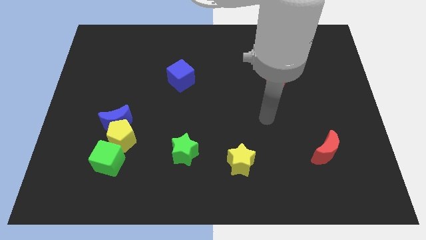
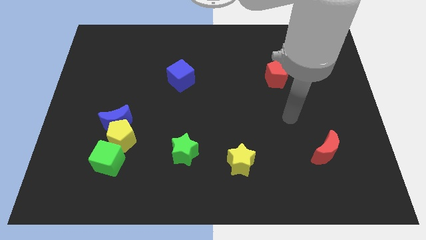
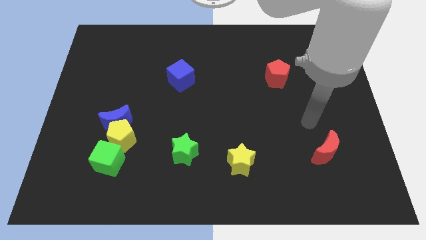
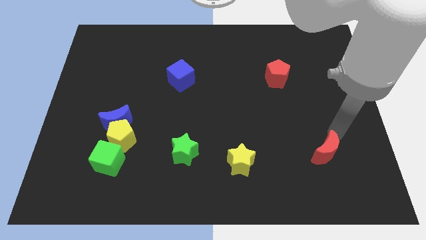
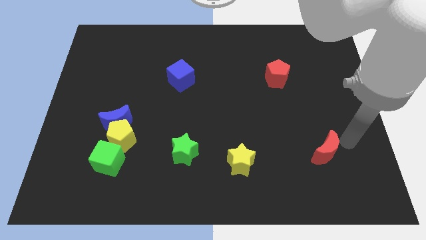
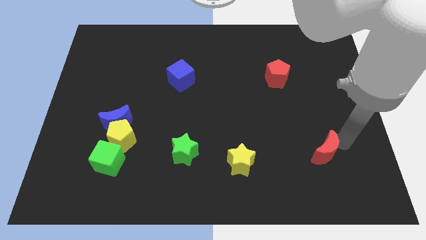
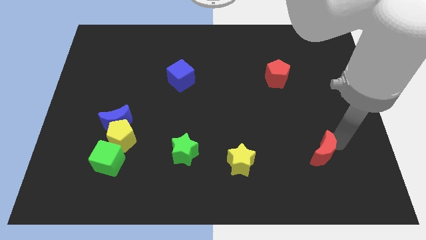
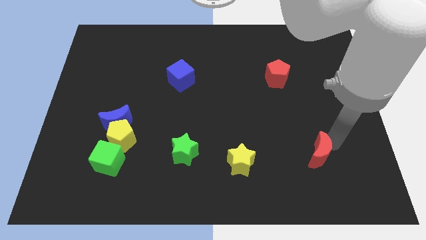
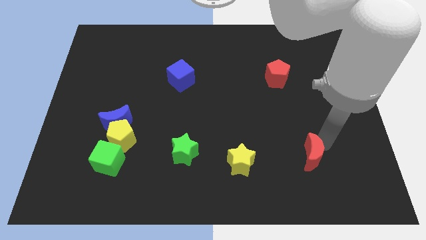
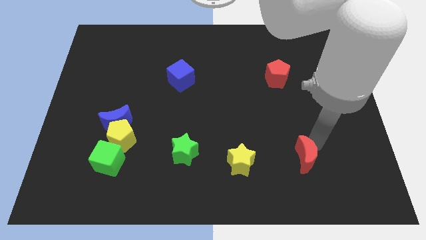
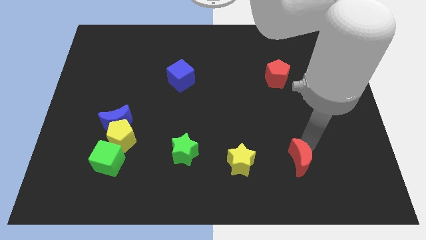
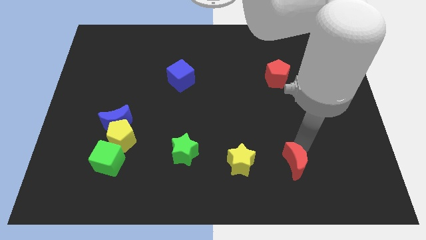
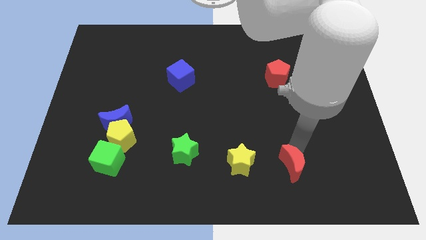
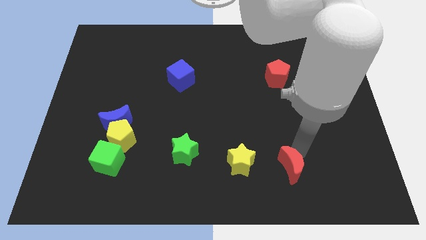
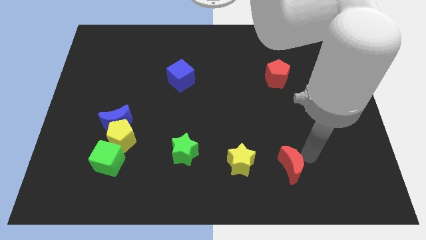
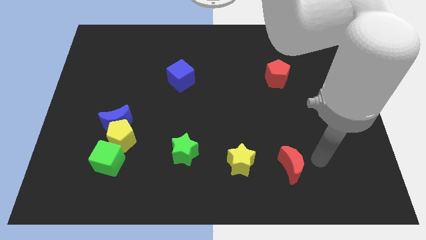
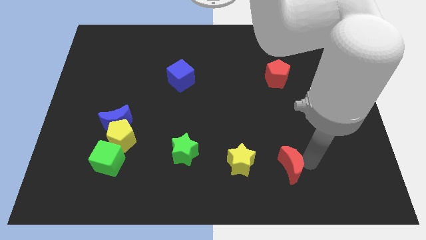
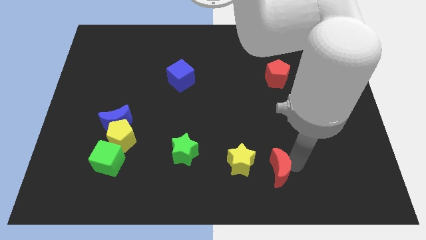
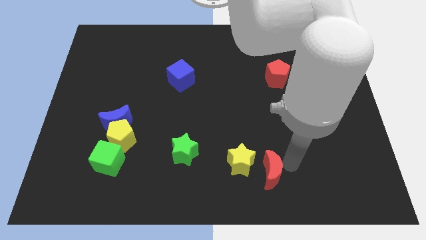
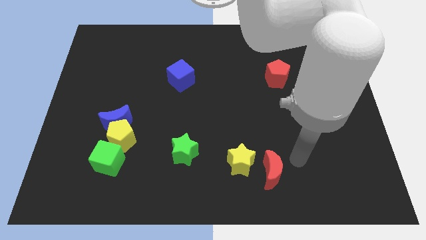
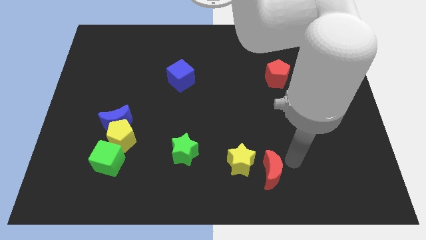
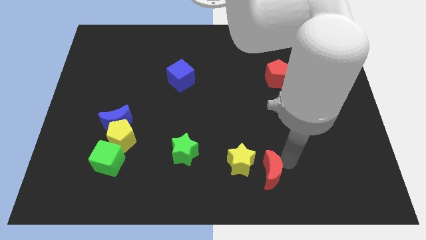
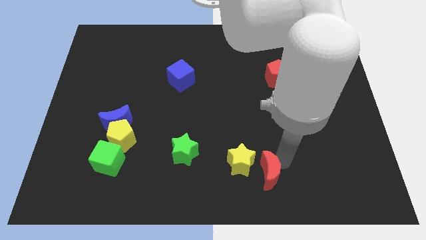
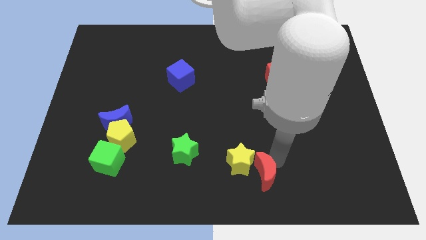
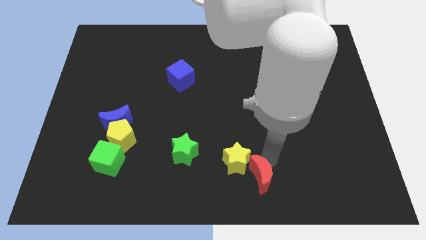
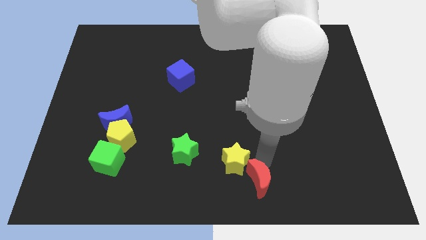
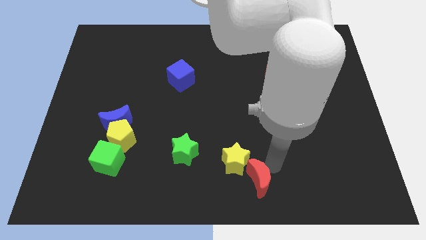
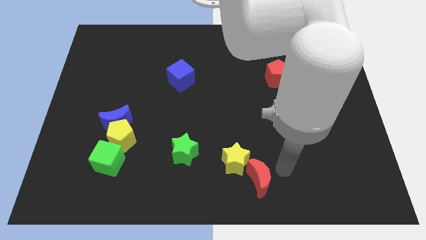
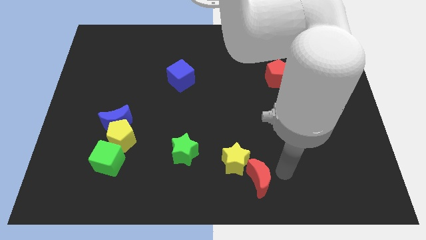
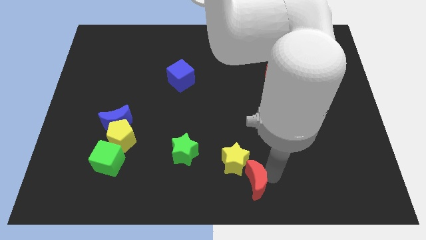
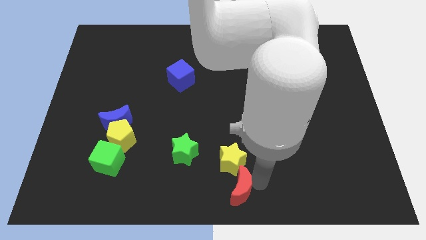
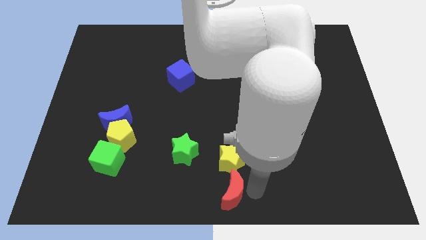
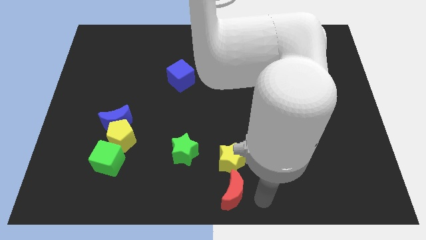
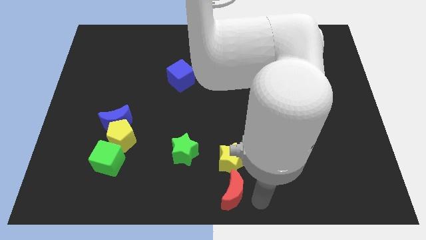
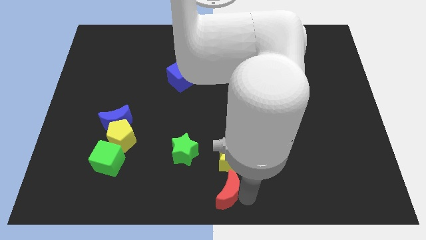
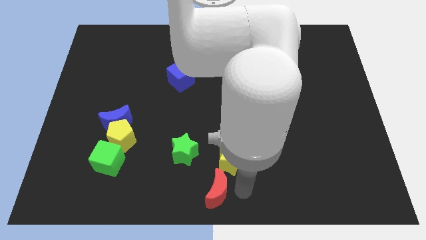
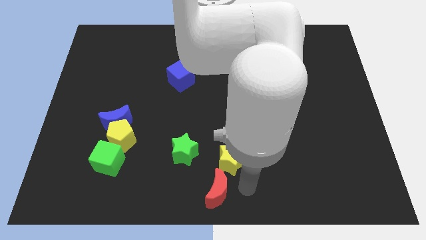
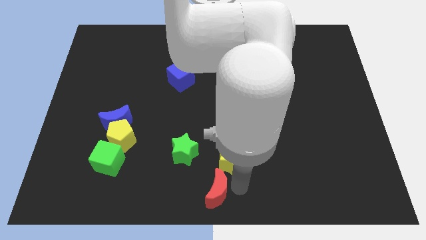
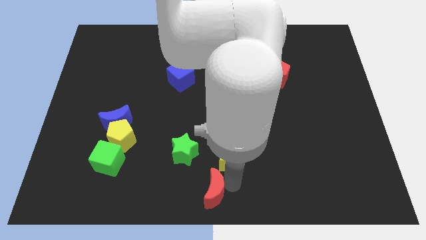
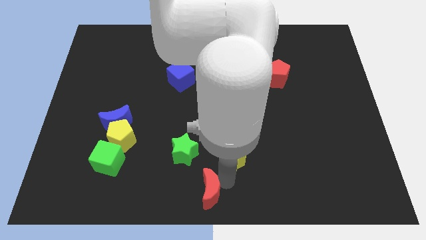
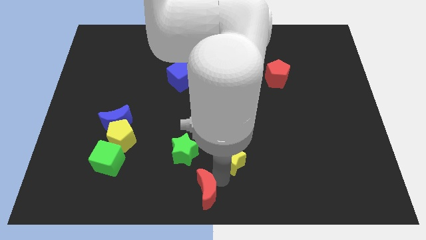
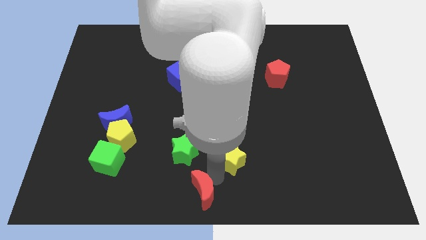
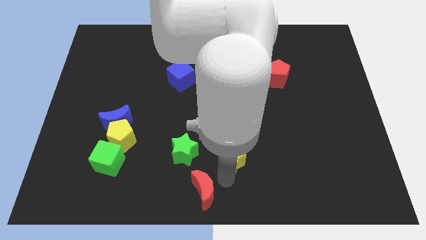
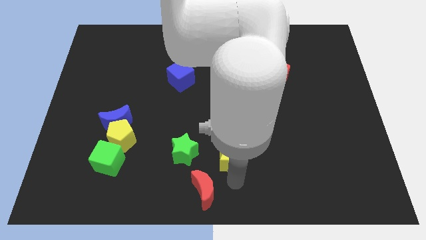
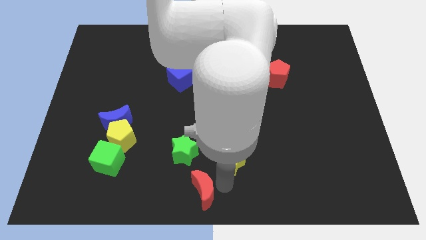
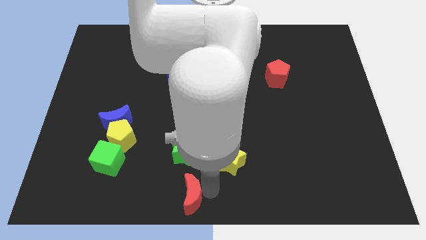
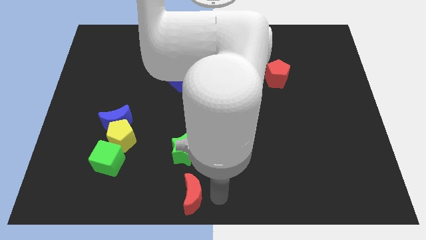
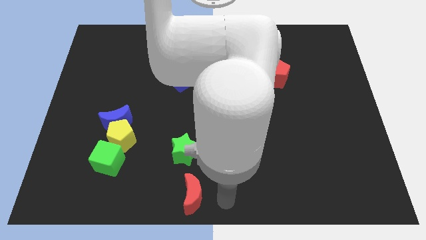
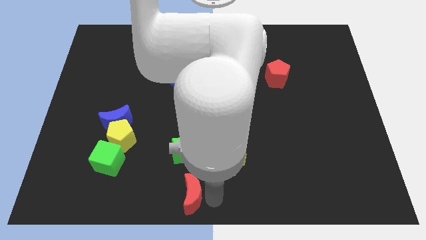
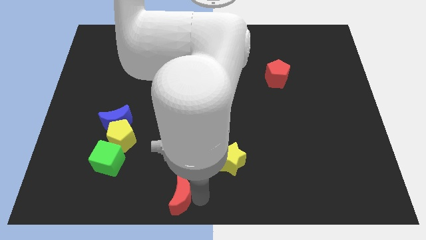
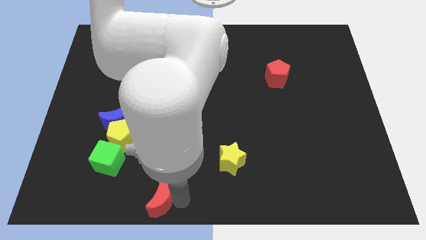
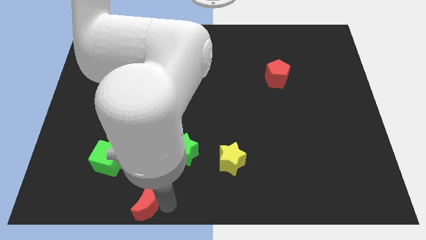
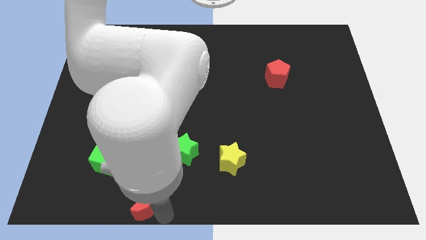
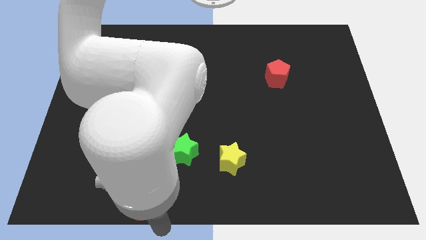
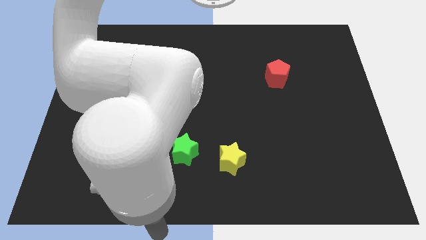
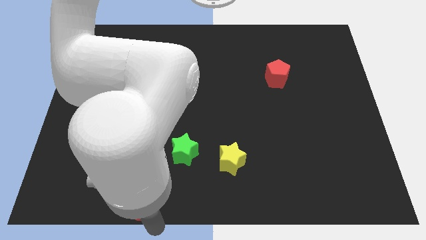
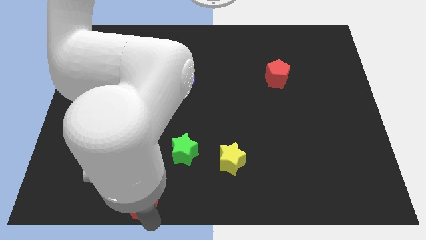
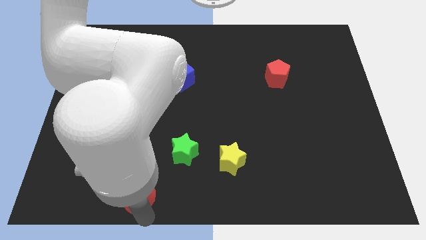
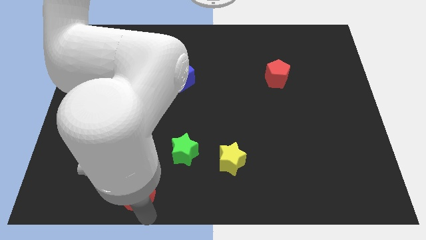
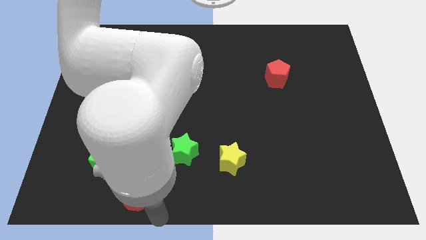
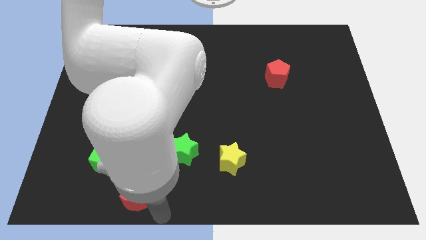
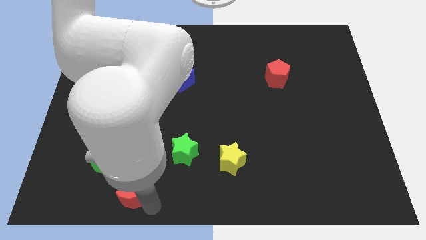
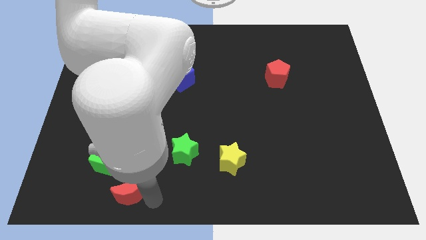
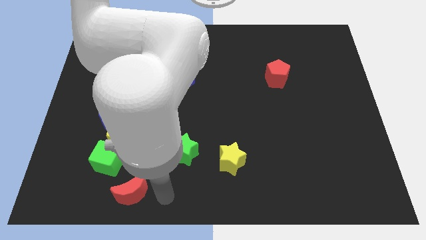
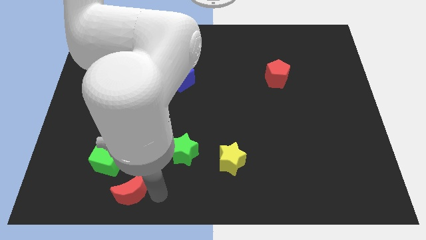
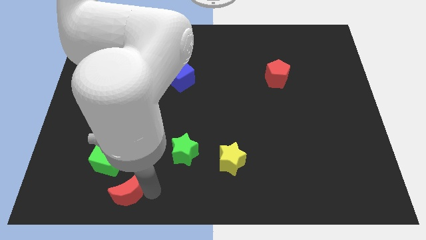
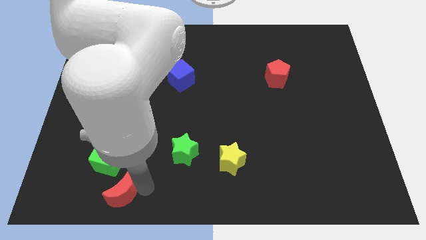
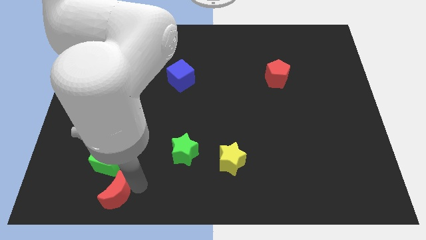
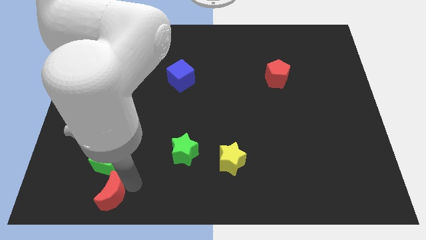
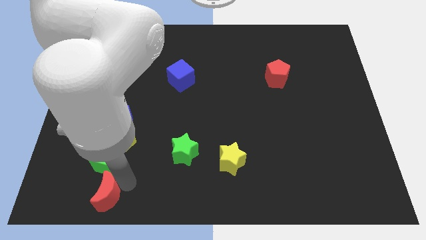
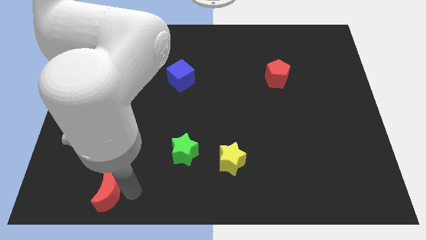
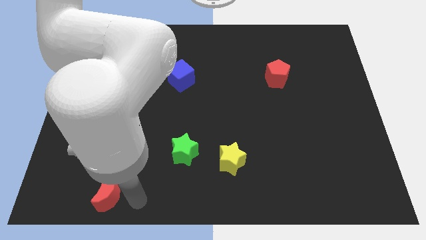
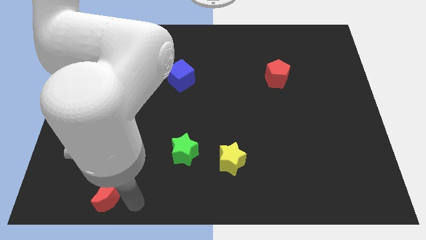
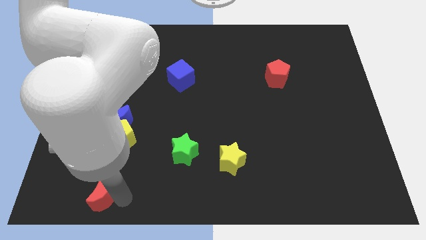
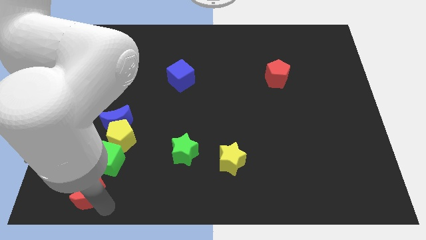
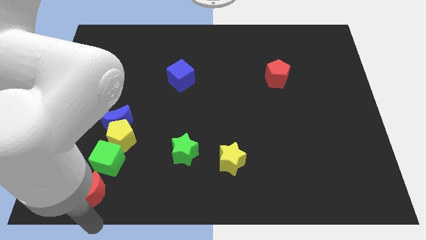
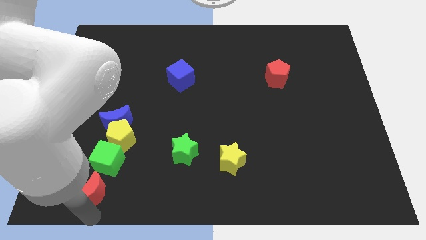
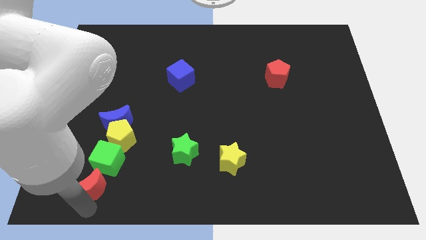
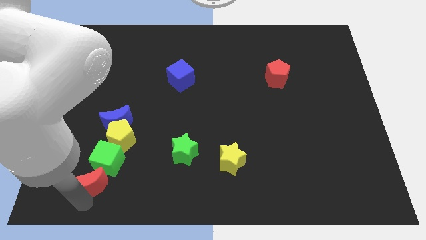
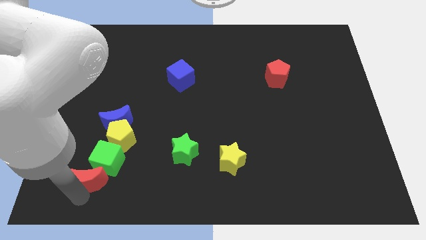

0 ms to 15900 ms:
push the red moon to the bottom left of the yellow pentagon
